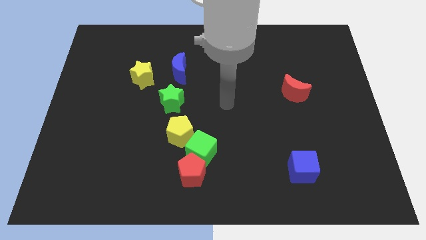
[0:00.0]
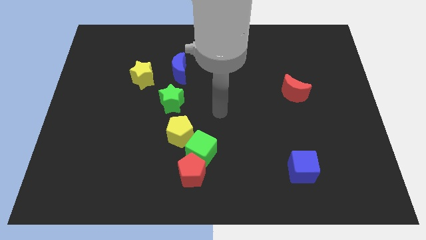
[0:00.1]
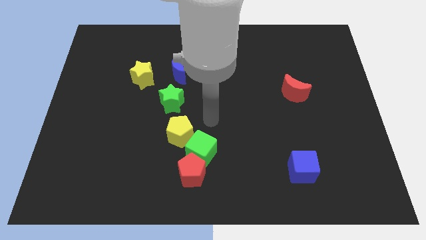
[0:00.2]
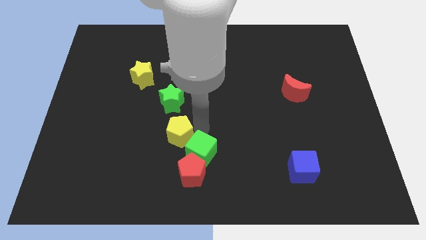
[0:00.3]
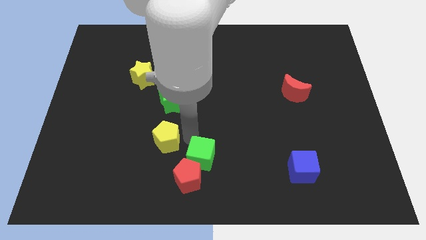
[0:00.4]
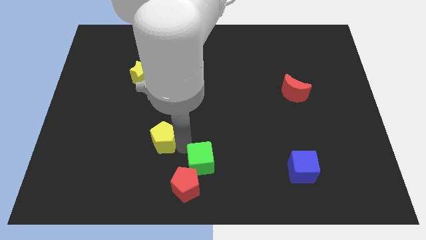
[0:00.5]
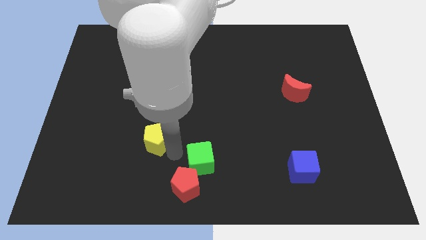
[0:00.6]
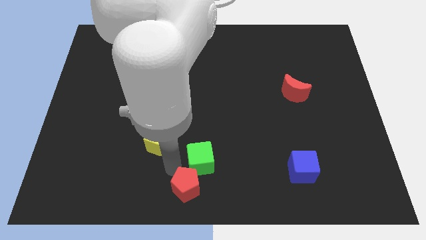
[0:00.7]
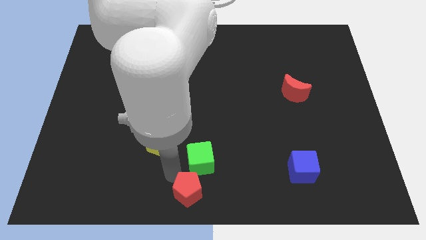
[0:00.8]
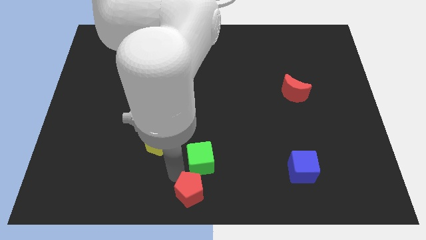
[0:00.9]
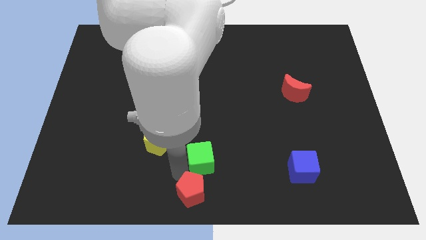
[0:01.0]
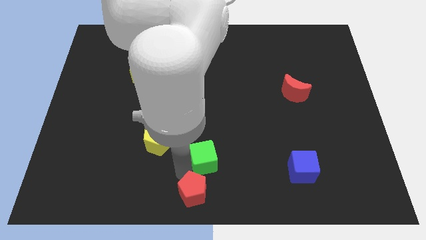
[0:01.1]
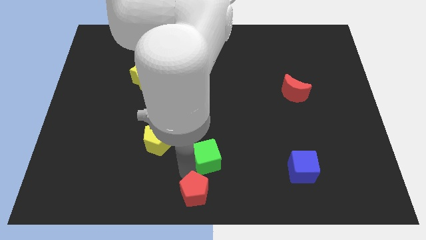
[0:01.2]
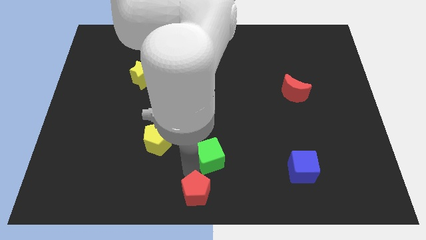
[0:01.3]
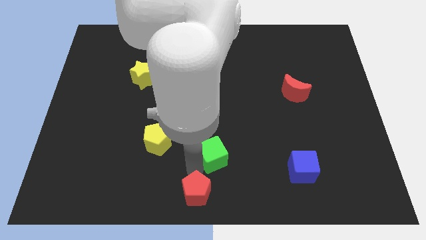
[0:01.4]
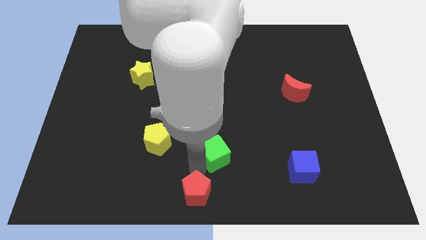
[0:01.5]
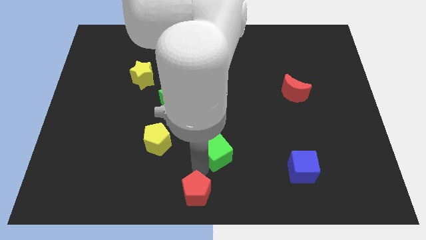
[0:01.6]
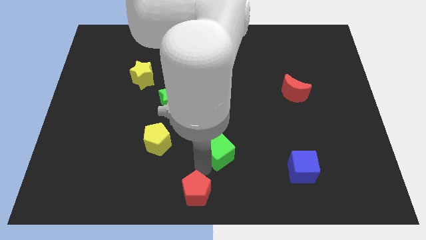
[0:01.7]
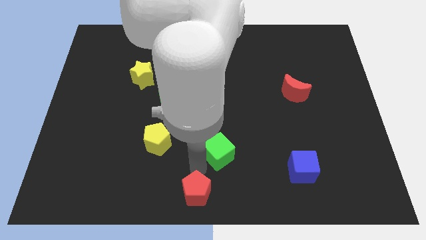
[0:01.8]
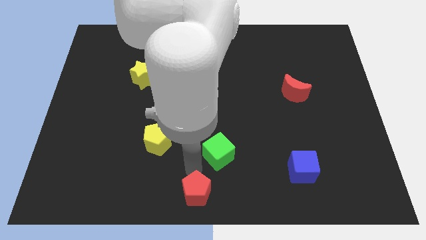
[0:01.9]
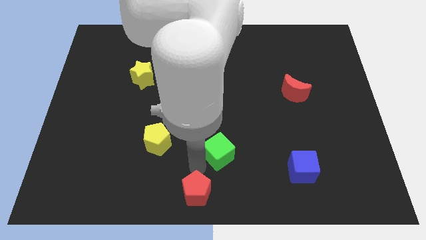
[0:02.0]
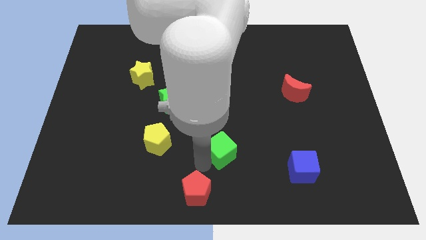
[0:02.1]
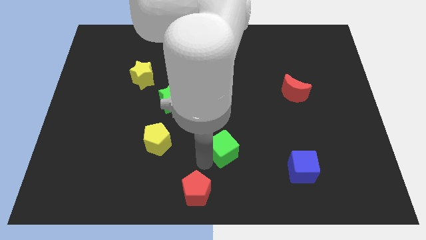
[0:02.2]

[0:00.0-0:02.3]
move the green cube away from the red pentagon and yellow pentagon

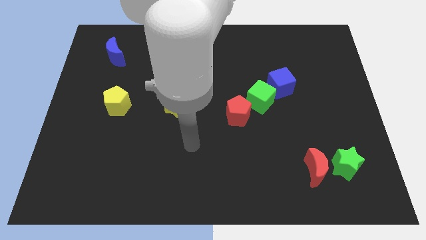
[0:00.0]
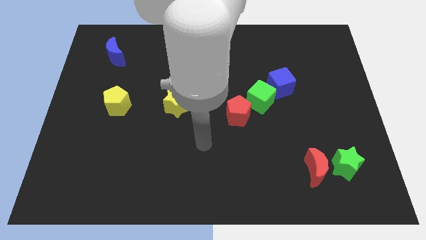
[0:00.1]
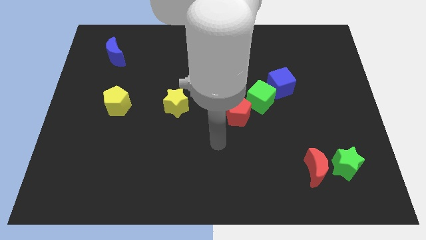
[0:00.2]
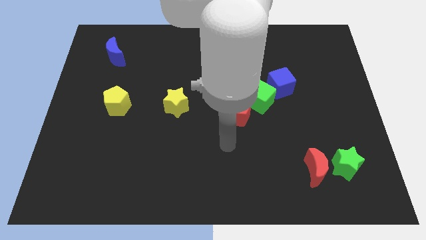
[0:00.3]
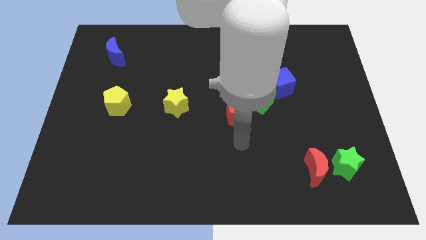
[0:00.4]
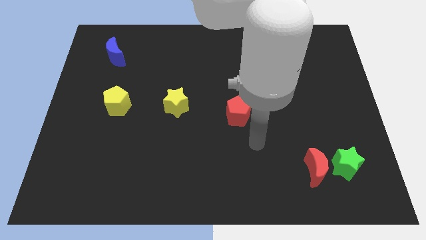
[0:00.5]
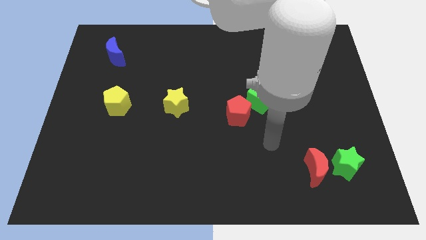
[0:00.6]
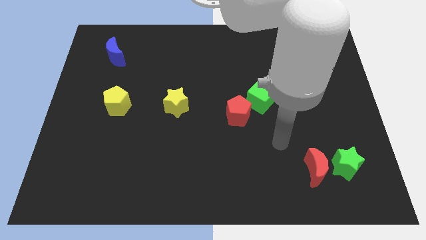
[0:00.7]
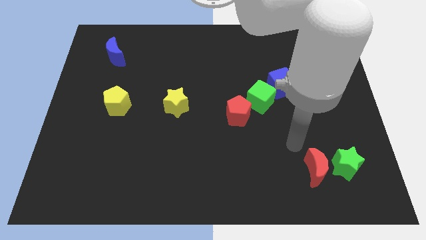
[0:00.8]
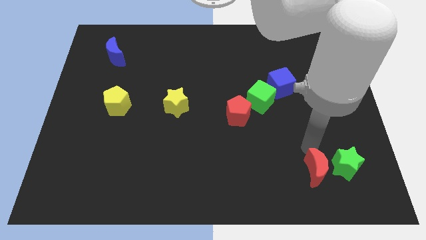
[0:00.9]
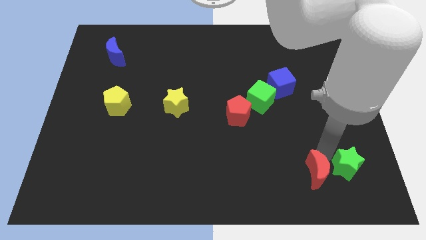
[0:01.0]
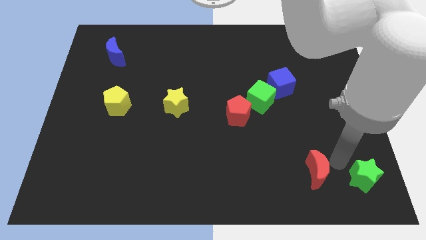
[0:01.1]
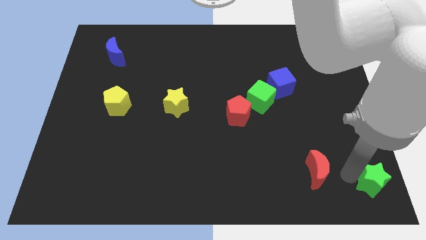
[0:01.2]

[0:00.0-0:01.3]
pull the red moon apart from the green star

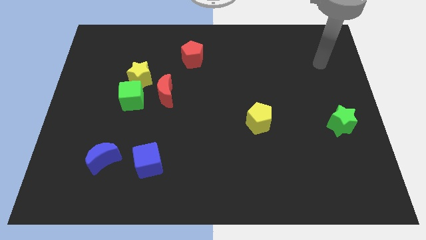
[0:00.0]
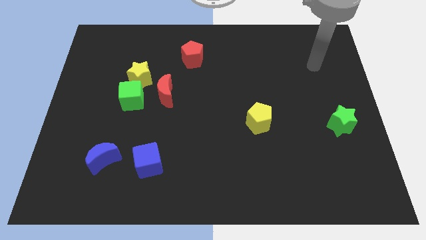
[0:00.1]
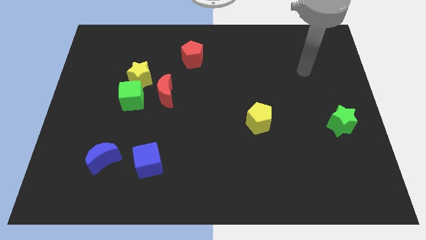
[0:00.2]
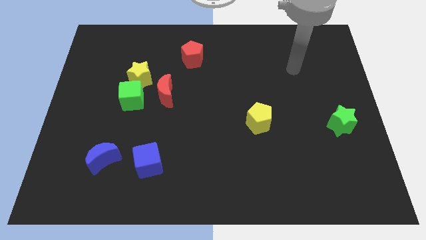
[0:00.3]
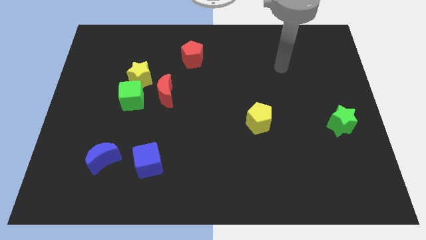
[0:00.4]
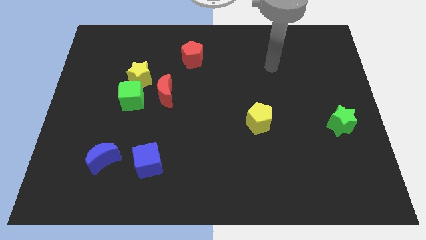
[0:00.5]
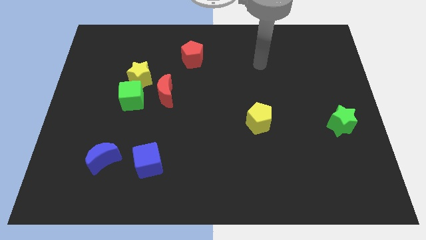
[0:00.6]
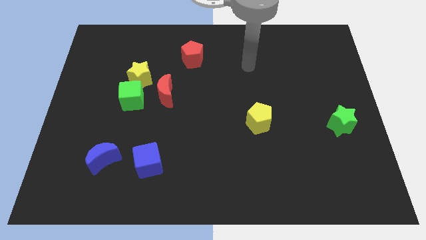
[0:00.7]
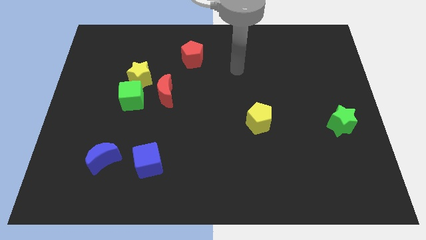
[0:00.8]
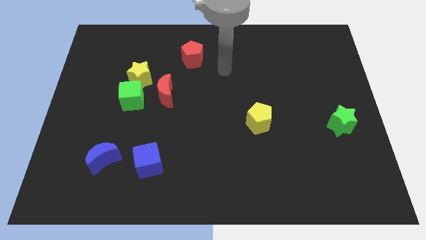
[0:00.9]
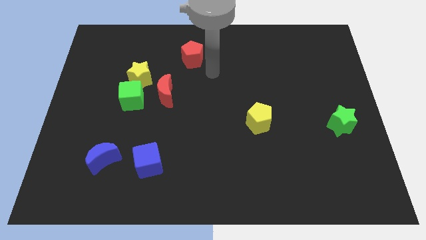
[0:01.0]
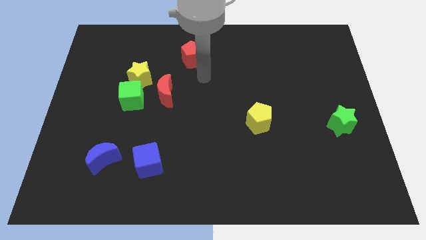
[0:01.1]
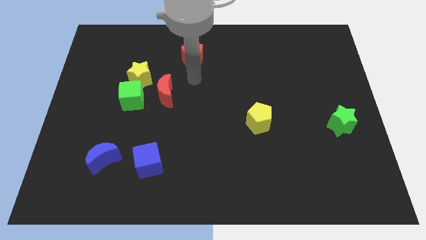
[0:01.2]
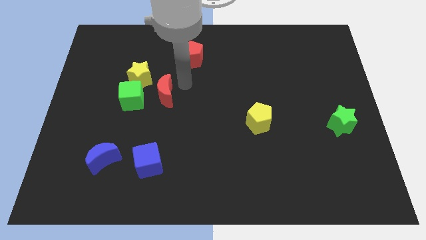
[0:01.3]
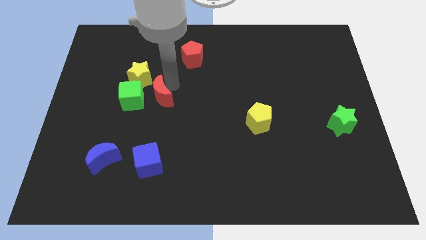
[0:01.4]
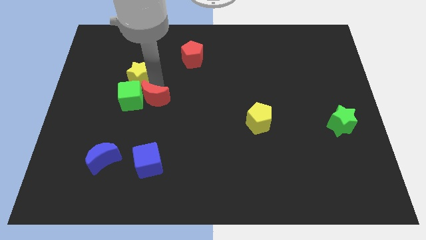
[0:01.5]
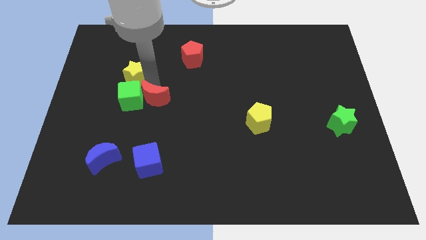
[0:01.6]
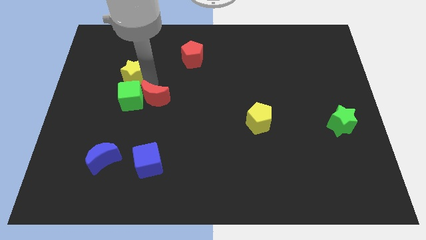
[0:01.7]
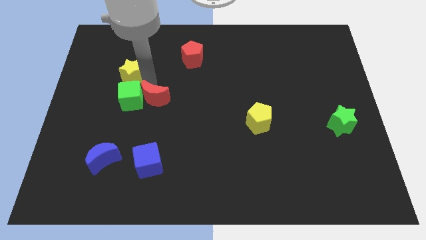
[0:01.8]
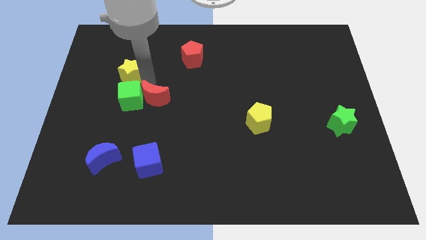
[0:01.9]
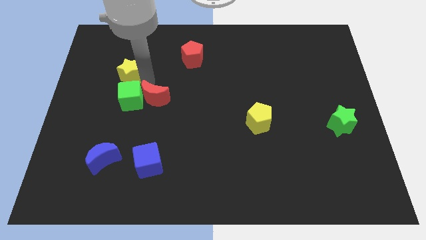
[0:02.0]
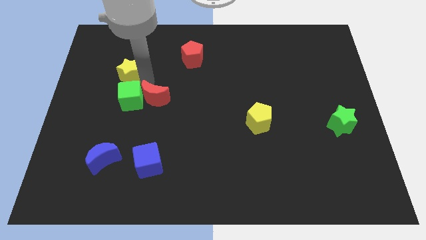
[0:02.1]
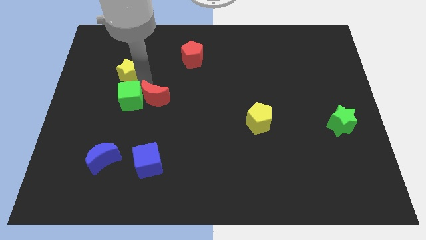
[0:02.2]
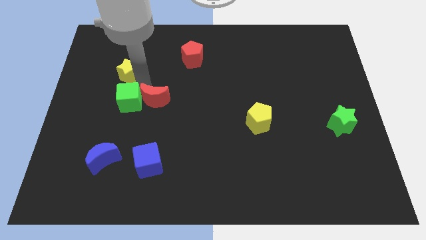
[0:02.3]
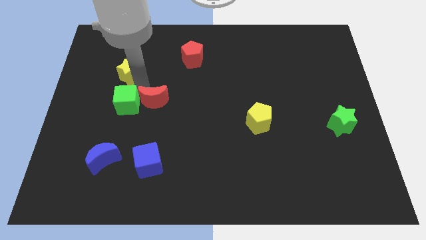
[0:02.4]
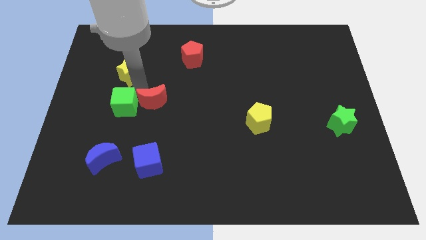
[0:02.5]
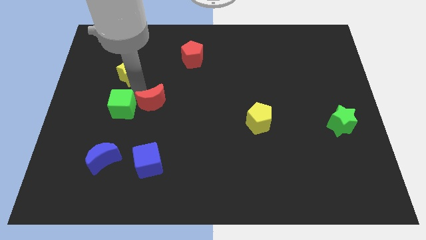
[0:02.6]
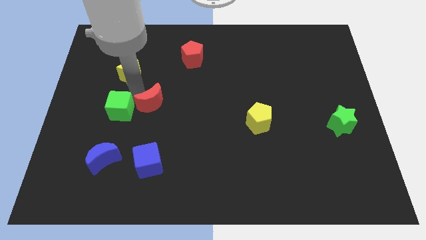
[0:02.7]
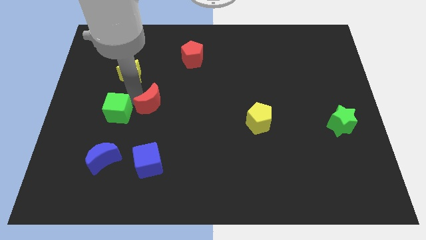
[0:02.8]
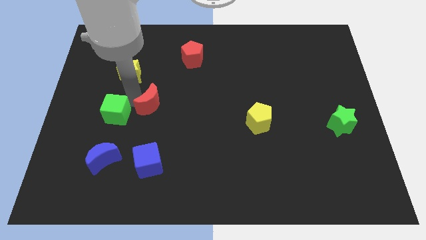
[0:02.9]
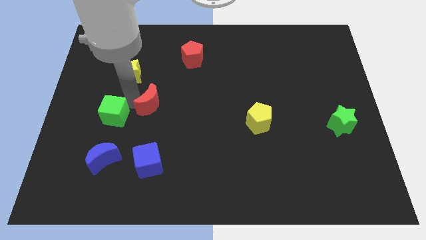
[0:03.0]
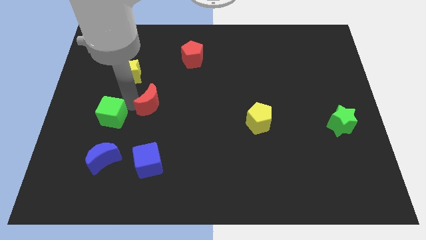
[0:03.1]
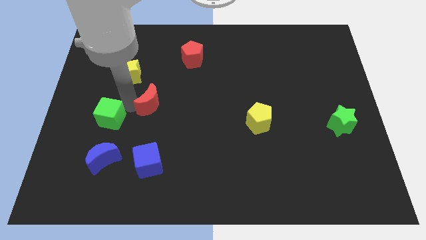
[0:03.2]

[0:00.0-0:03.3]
separate the green cube from the yellow star and red moon

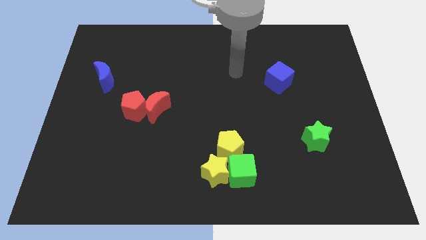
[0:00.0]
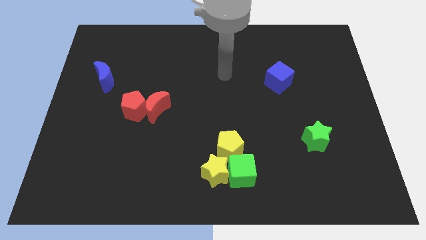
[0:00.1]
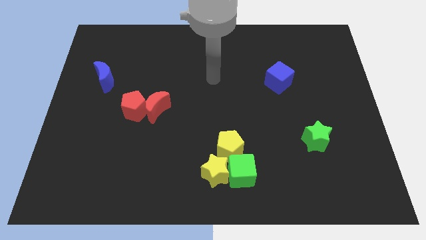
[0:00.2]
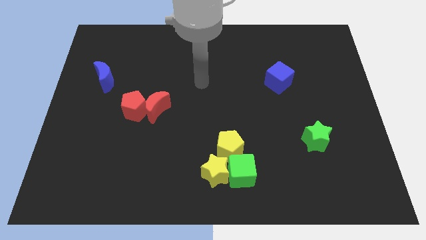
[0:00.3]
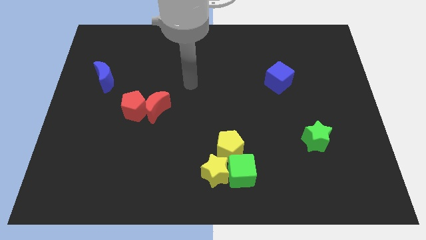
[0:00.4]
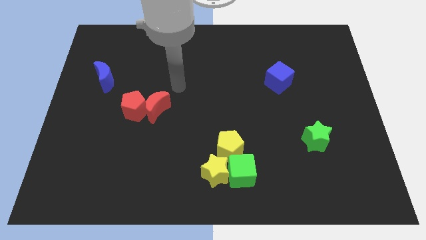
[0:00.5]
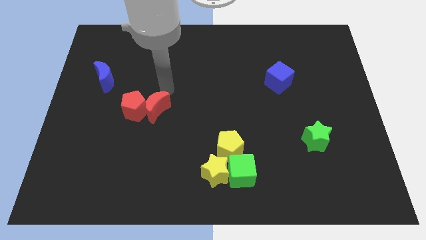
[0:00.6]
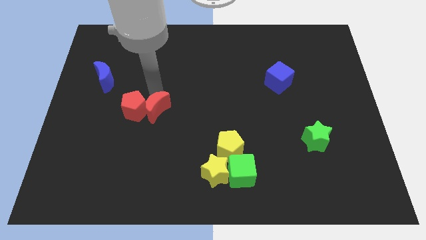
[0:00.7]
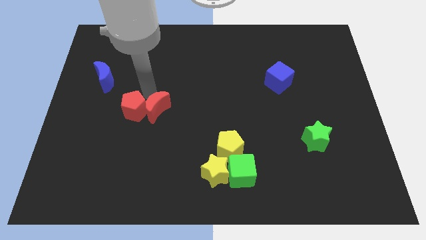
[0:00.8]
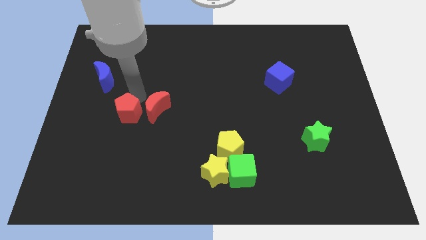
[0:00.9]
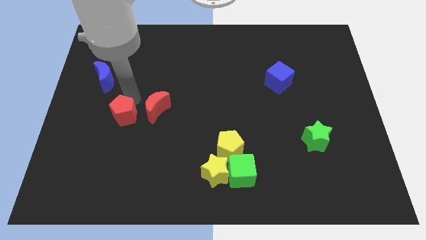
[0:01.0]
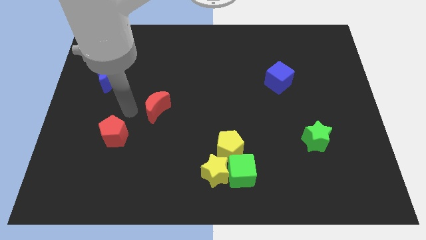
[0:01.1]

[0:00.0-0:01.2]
move the red moon away from the red pentagon

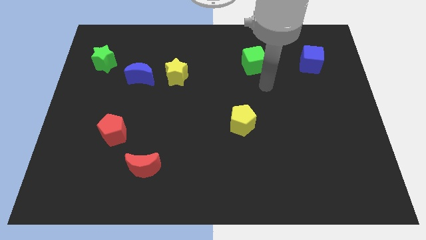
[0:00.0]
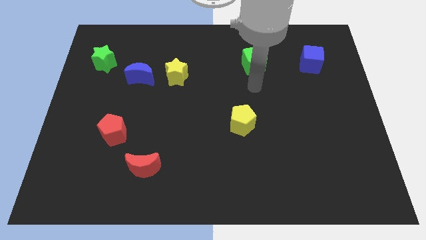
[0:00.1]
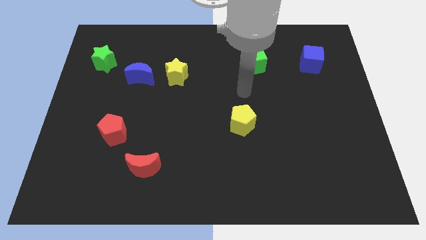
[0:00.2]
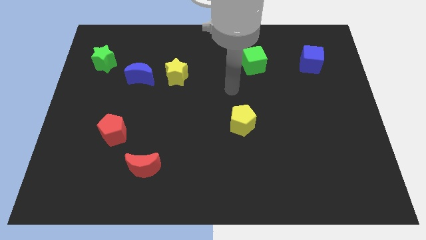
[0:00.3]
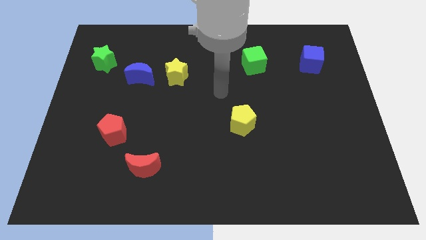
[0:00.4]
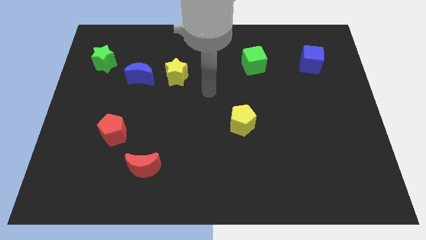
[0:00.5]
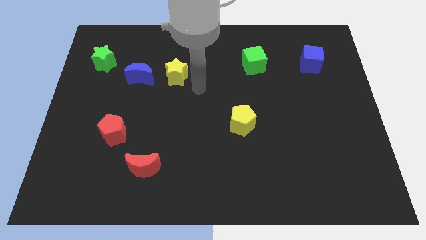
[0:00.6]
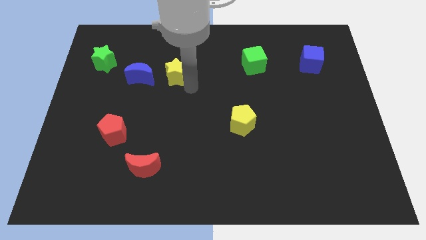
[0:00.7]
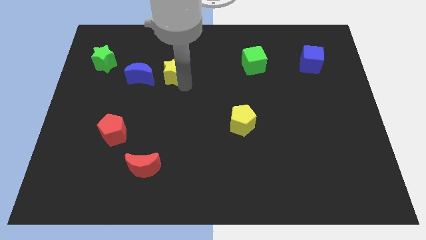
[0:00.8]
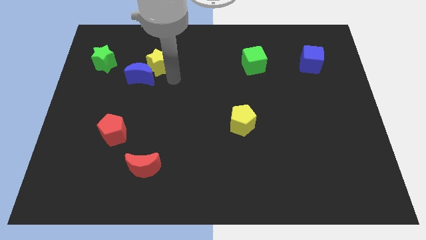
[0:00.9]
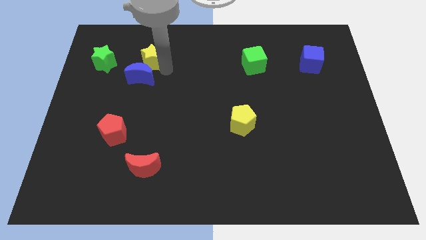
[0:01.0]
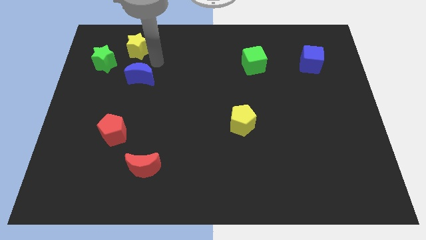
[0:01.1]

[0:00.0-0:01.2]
separate the blue moon from the yellow star

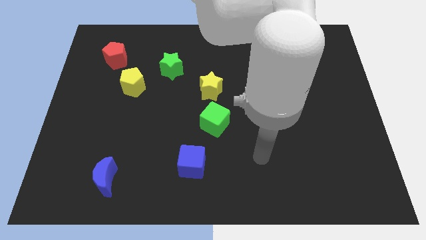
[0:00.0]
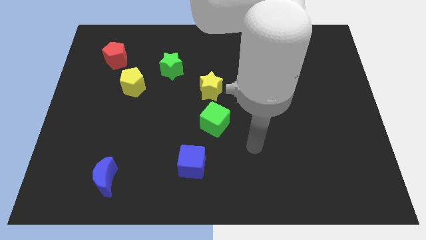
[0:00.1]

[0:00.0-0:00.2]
separate the green cube from the yellow star
